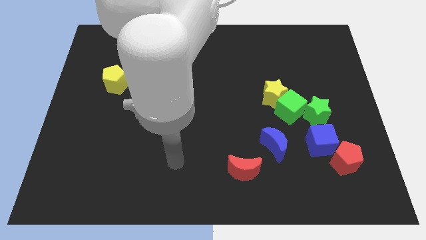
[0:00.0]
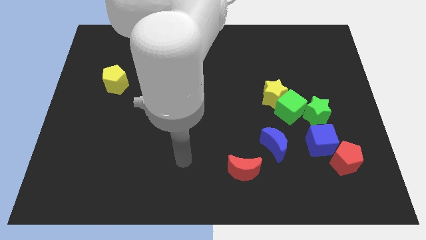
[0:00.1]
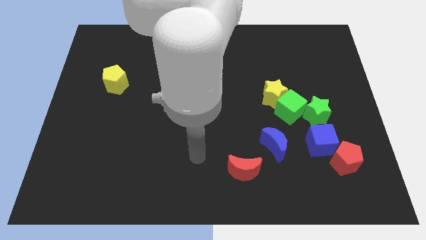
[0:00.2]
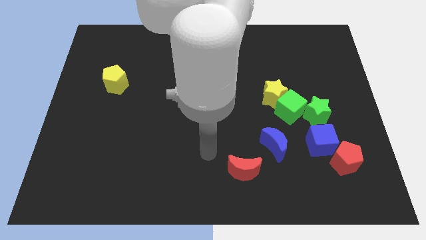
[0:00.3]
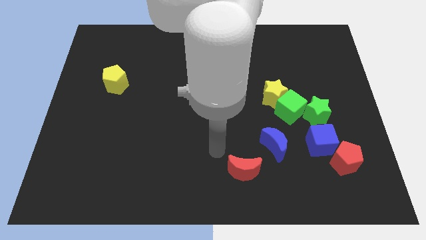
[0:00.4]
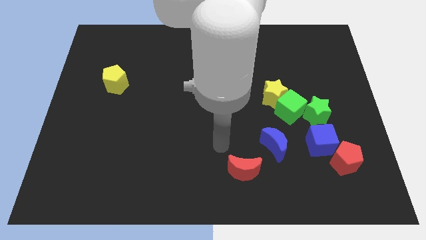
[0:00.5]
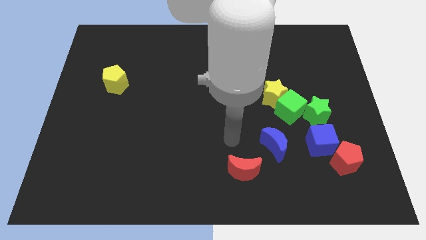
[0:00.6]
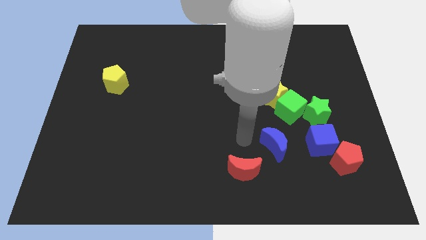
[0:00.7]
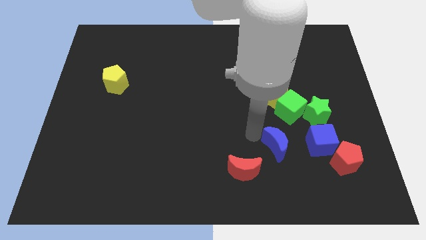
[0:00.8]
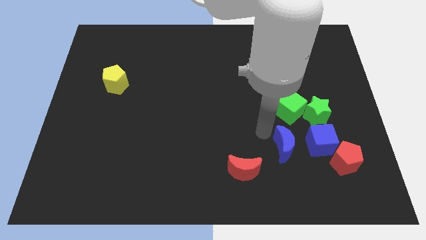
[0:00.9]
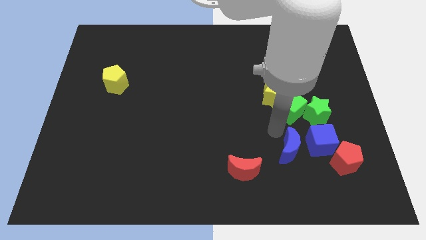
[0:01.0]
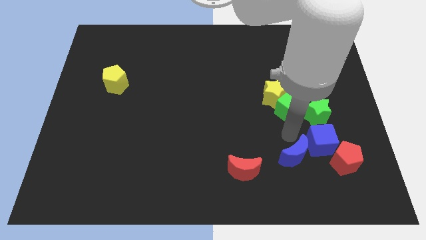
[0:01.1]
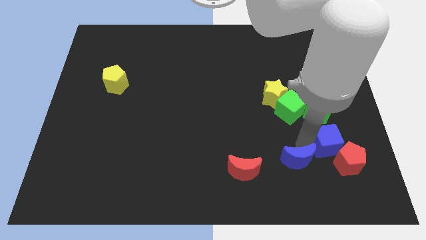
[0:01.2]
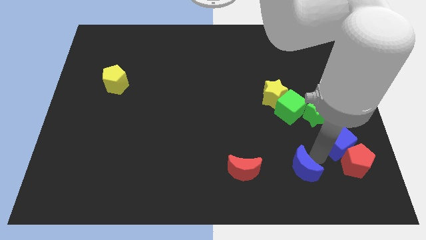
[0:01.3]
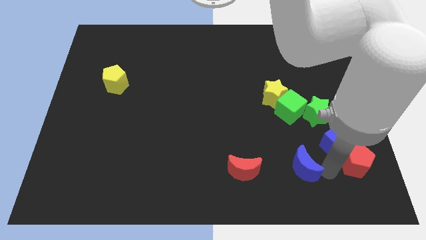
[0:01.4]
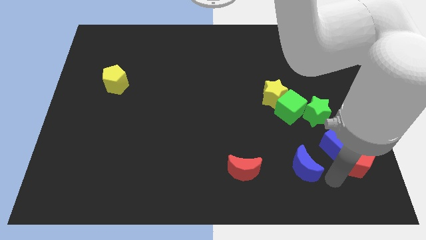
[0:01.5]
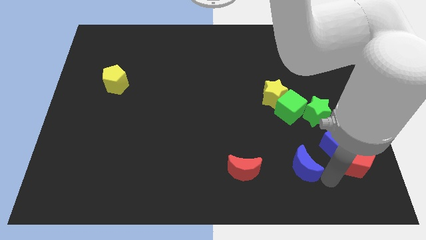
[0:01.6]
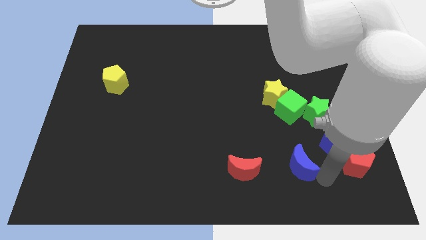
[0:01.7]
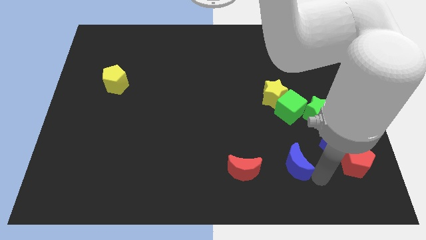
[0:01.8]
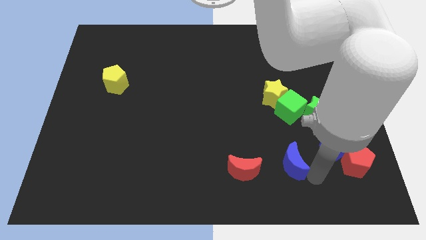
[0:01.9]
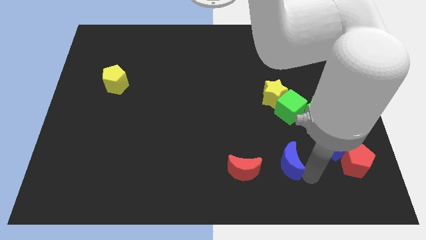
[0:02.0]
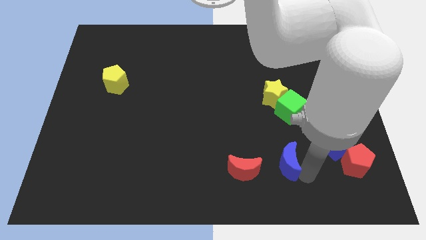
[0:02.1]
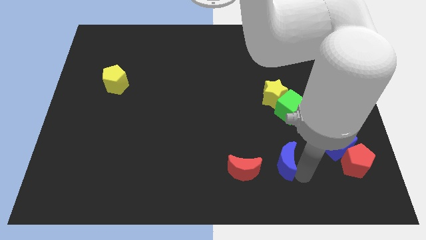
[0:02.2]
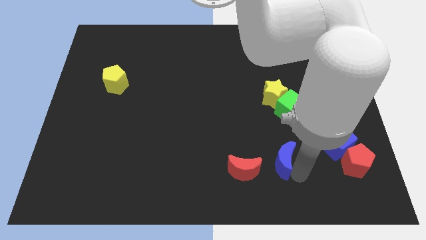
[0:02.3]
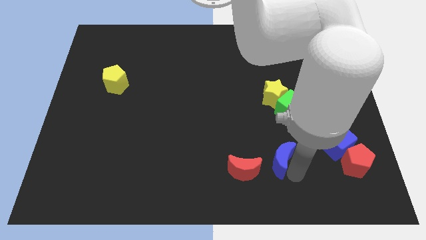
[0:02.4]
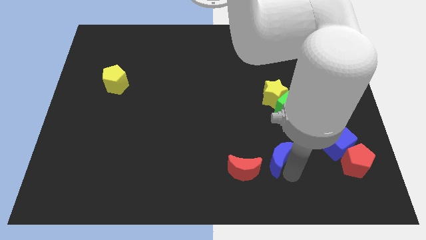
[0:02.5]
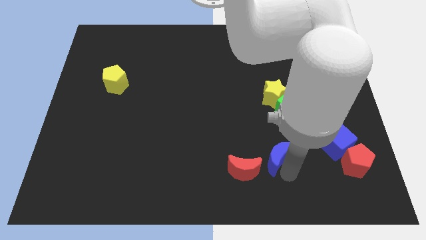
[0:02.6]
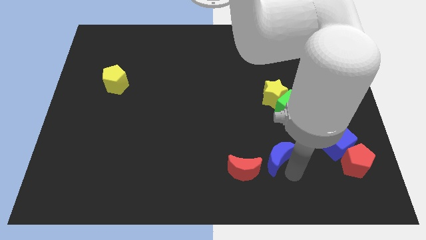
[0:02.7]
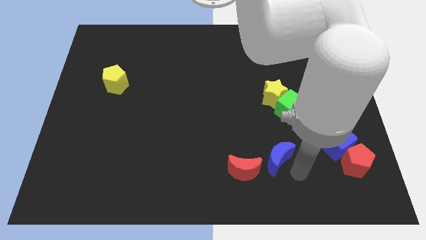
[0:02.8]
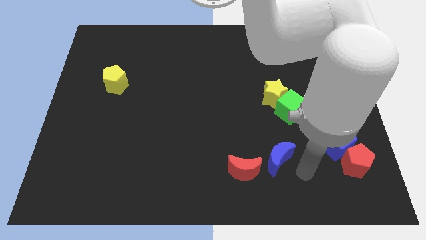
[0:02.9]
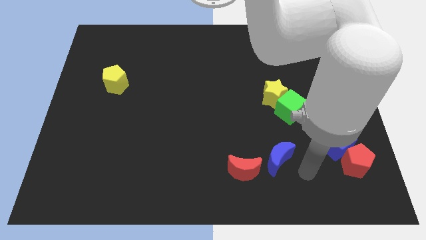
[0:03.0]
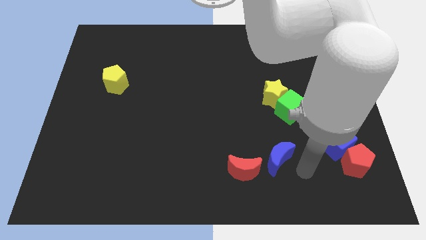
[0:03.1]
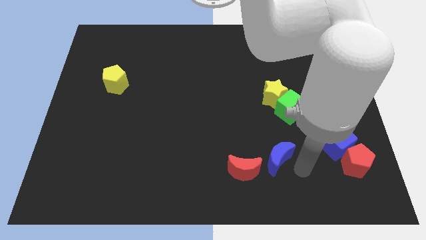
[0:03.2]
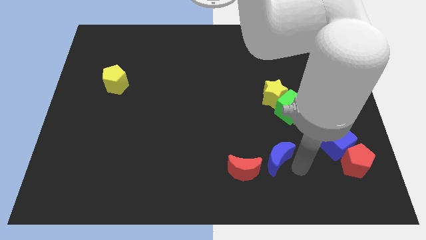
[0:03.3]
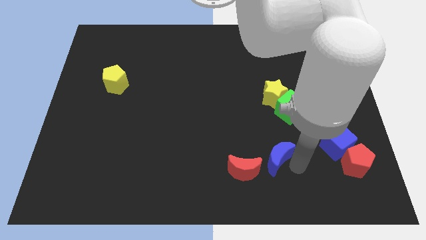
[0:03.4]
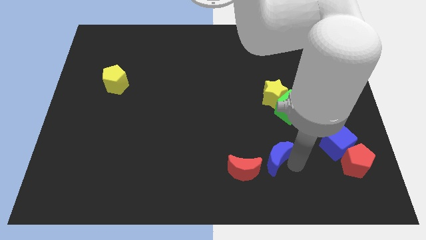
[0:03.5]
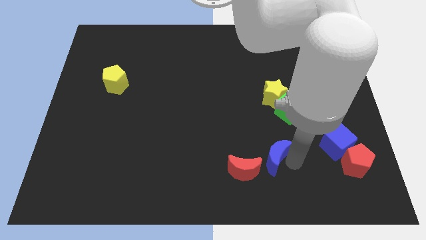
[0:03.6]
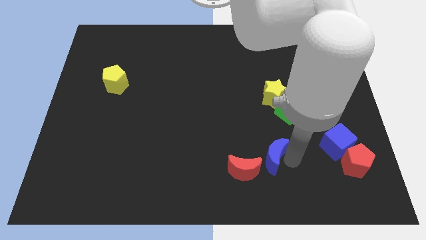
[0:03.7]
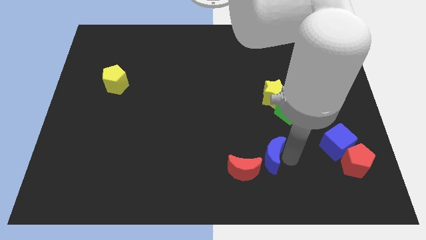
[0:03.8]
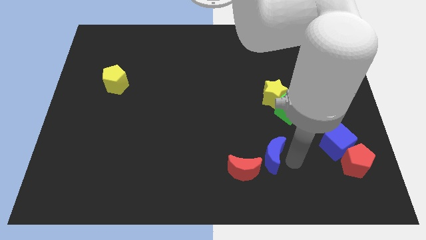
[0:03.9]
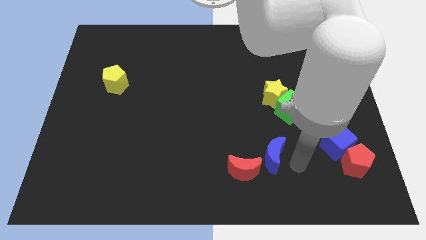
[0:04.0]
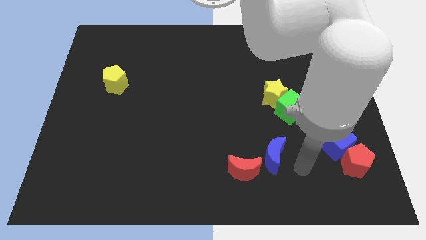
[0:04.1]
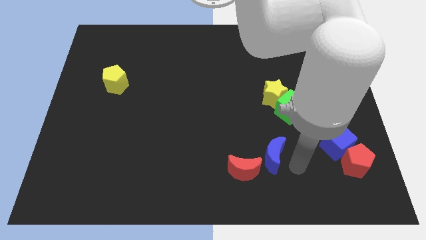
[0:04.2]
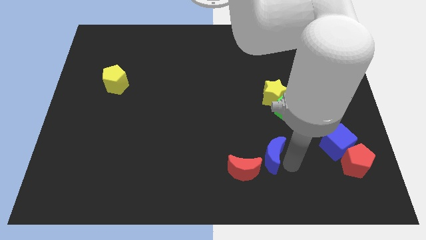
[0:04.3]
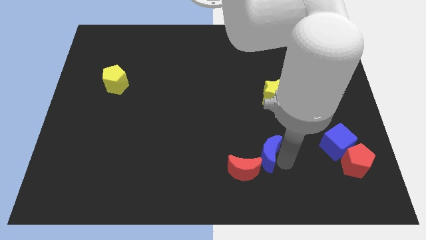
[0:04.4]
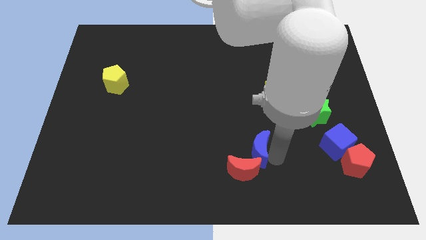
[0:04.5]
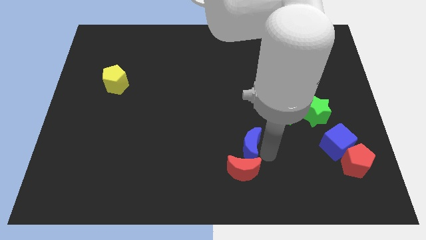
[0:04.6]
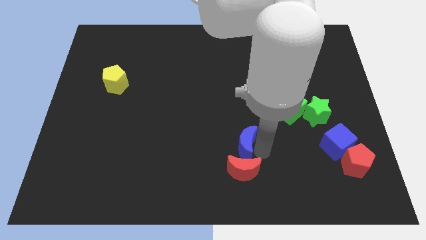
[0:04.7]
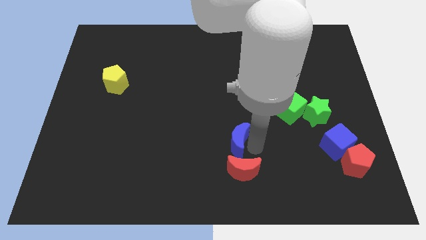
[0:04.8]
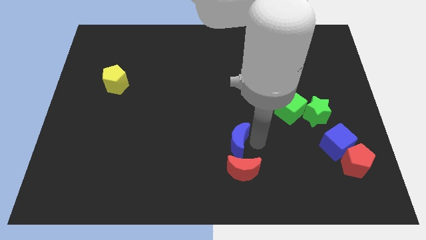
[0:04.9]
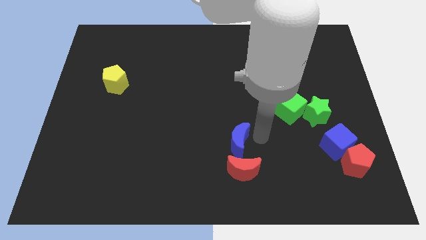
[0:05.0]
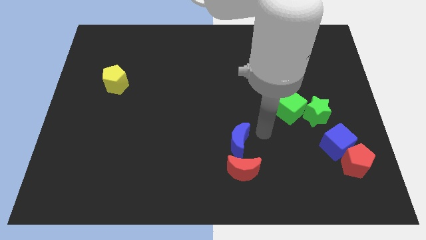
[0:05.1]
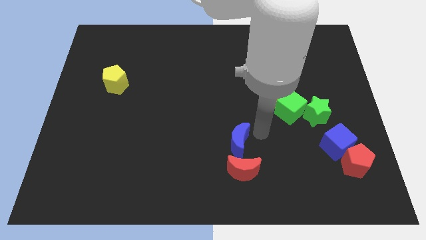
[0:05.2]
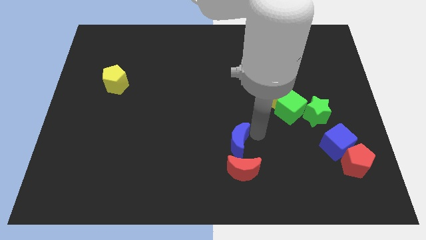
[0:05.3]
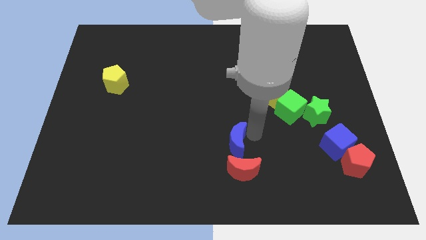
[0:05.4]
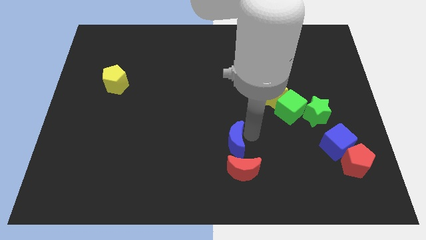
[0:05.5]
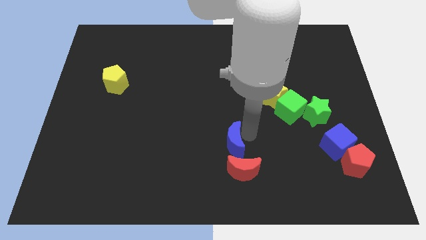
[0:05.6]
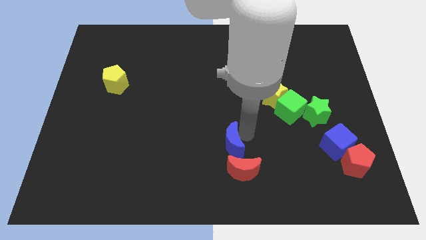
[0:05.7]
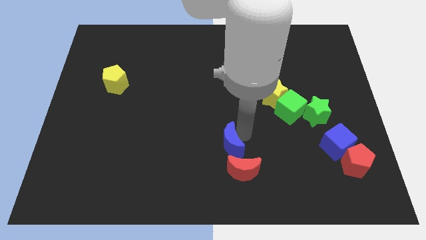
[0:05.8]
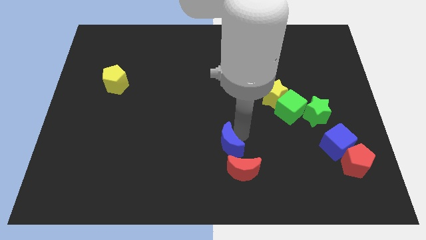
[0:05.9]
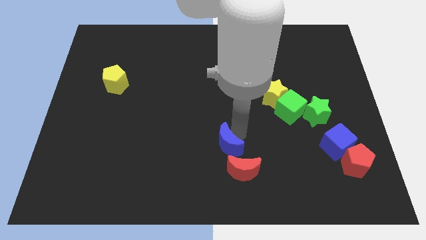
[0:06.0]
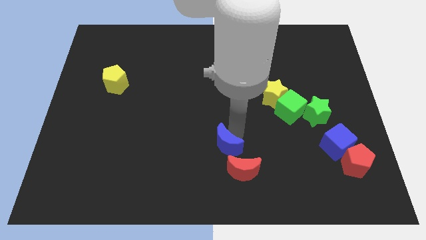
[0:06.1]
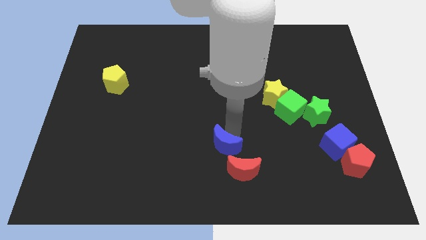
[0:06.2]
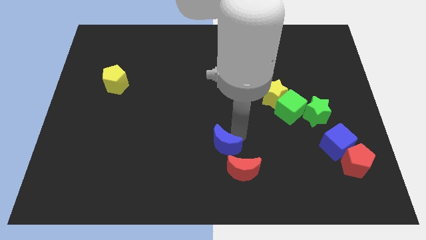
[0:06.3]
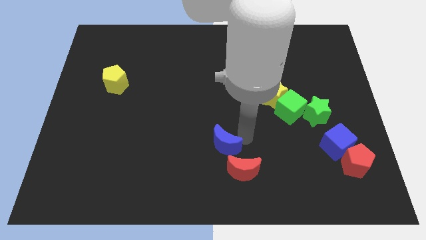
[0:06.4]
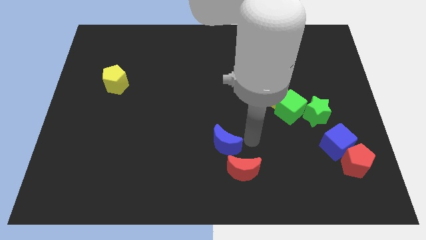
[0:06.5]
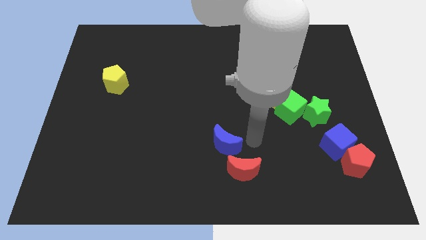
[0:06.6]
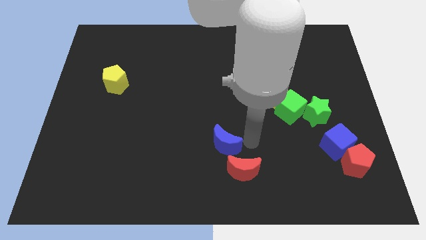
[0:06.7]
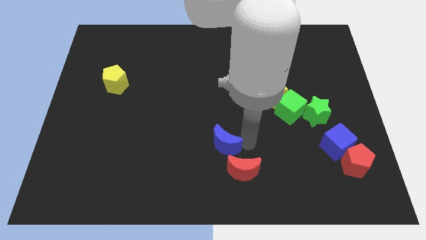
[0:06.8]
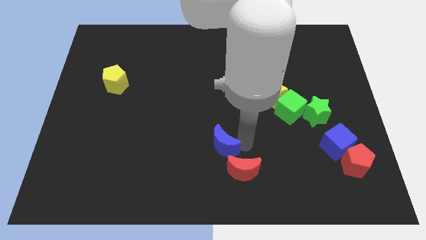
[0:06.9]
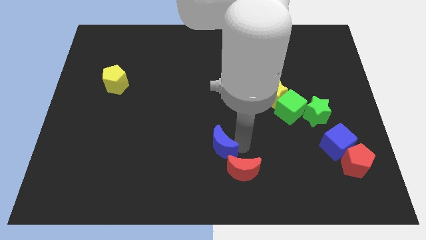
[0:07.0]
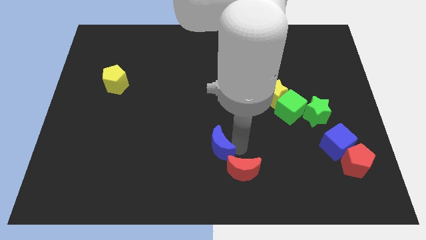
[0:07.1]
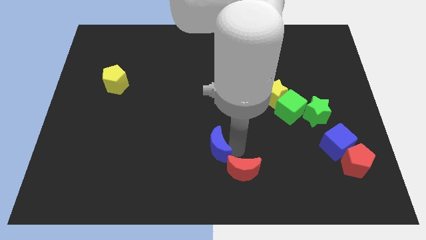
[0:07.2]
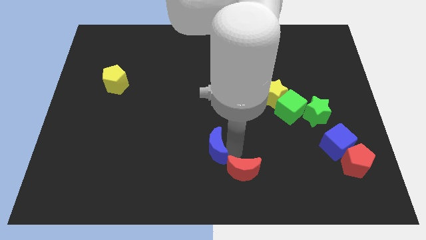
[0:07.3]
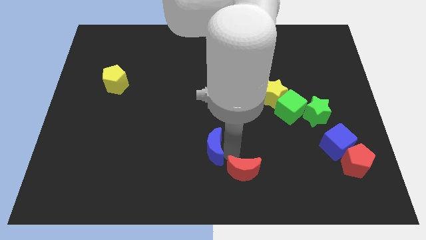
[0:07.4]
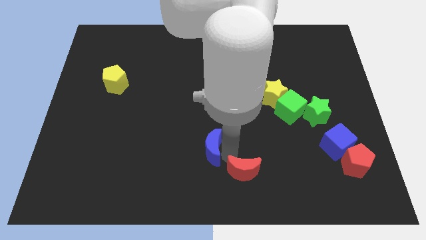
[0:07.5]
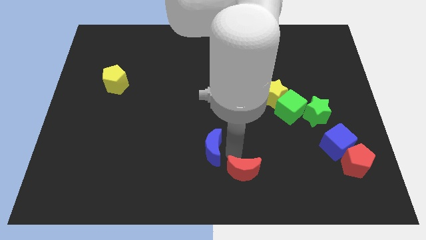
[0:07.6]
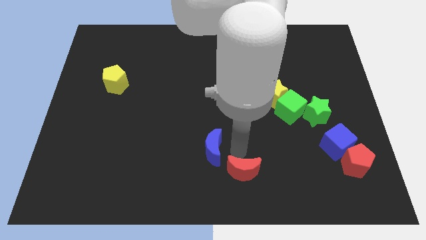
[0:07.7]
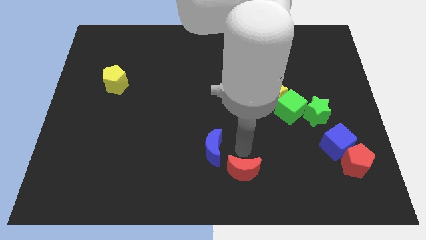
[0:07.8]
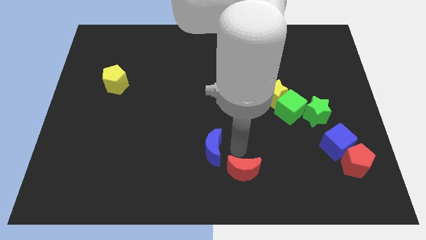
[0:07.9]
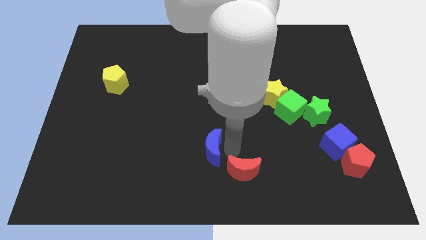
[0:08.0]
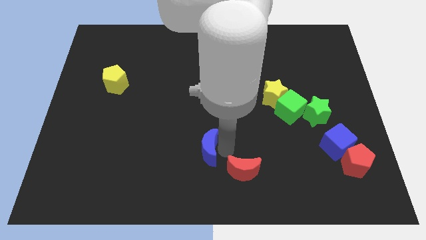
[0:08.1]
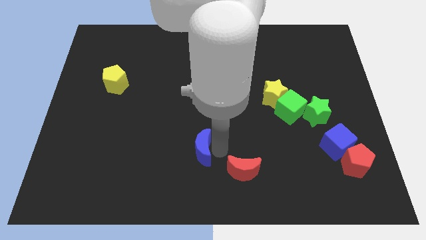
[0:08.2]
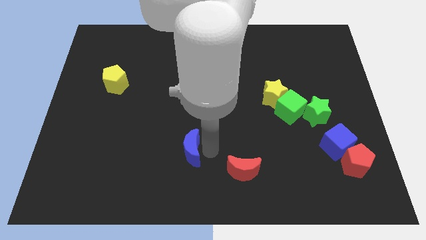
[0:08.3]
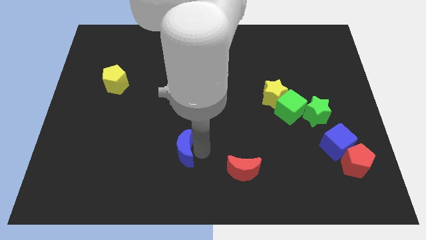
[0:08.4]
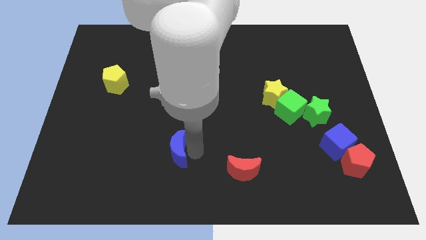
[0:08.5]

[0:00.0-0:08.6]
slide the blue moon to the left

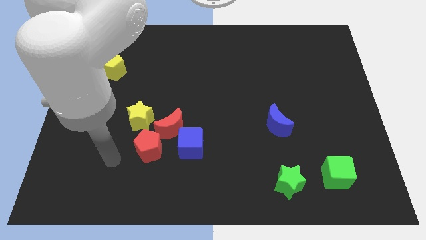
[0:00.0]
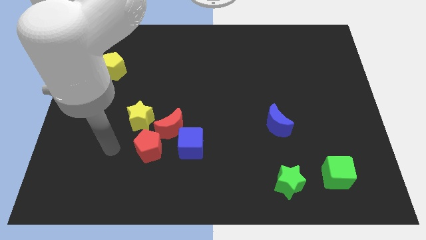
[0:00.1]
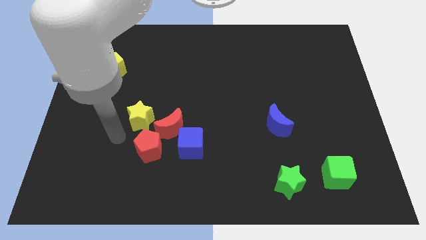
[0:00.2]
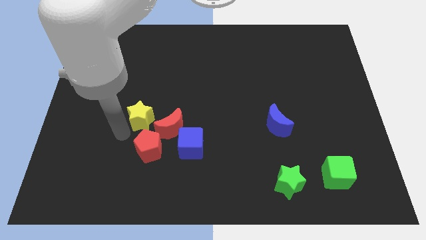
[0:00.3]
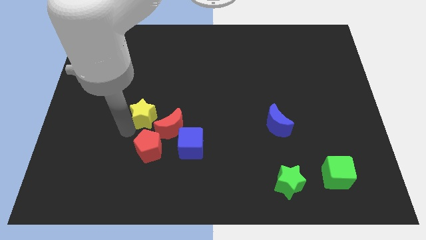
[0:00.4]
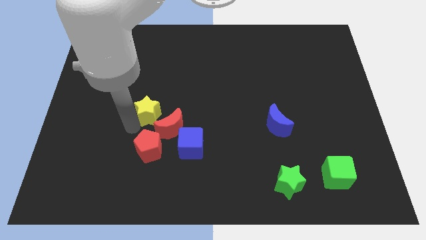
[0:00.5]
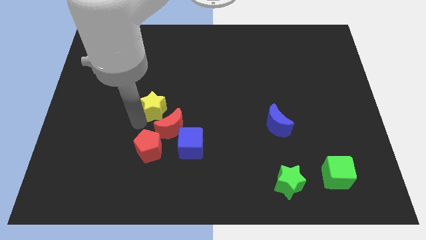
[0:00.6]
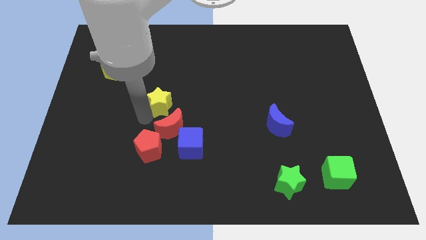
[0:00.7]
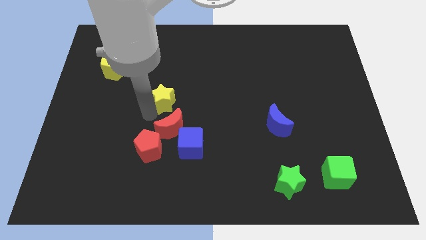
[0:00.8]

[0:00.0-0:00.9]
slightly slide the yellow star up and right diagonally
